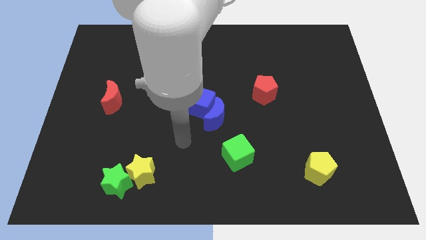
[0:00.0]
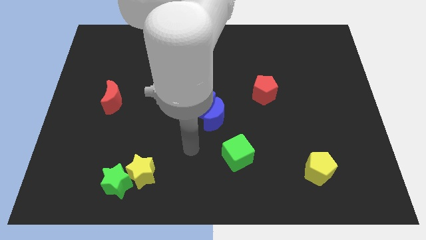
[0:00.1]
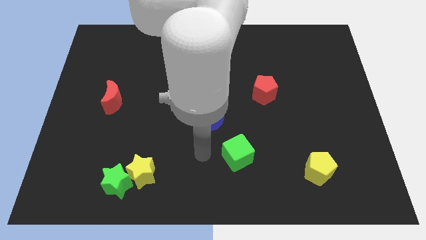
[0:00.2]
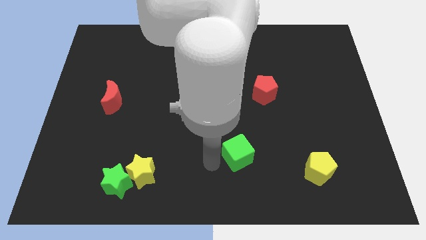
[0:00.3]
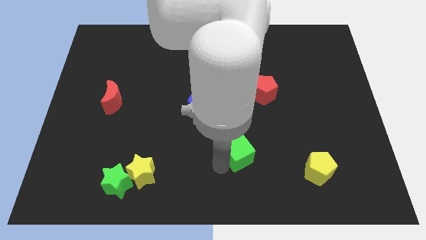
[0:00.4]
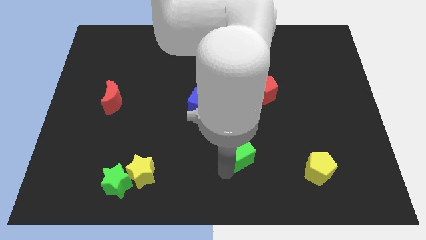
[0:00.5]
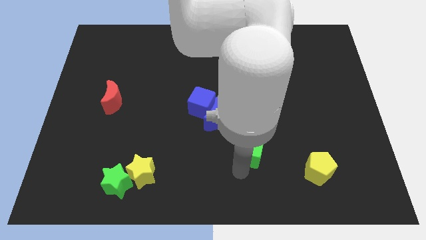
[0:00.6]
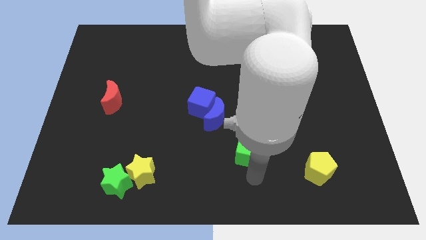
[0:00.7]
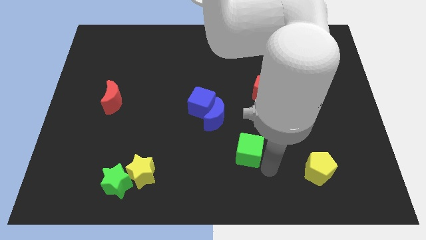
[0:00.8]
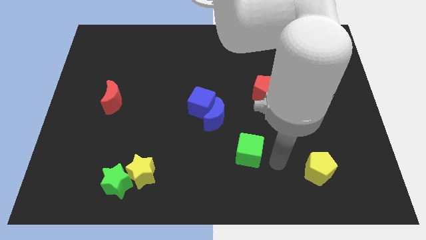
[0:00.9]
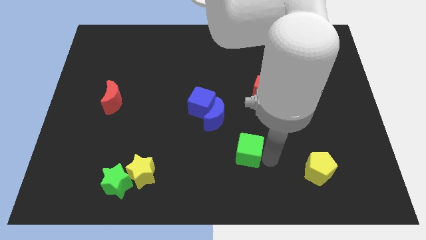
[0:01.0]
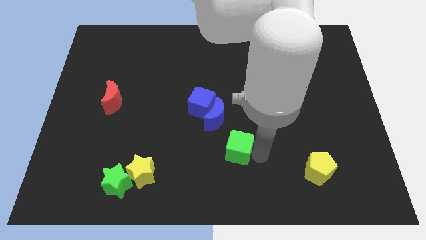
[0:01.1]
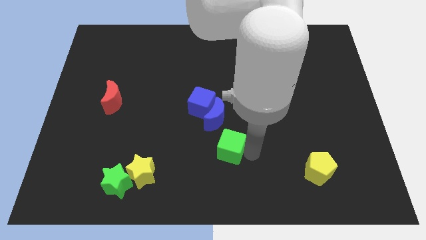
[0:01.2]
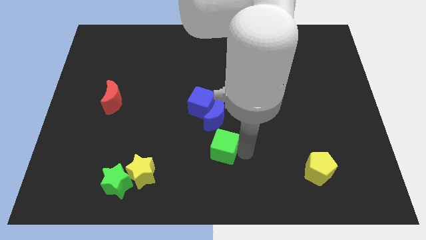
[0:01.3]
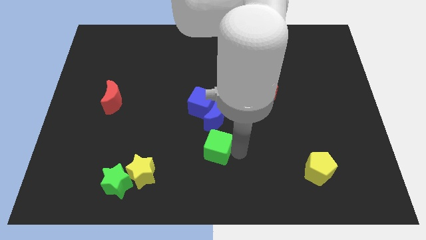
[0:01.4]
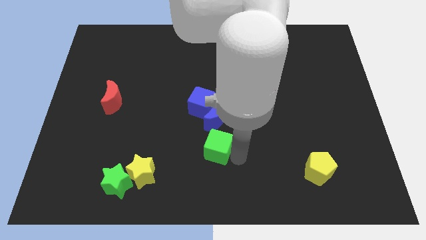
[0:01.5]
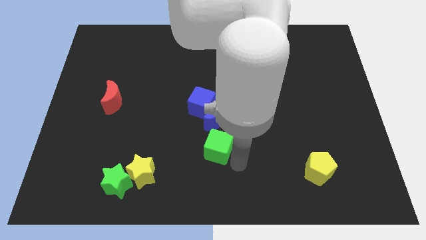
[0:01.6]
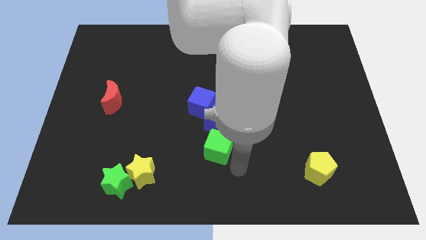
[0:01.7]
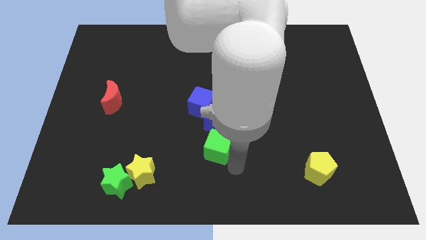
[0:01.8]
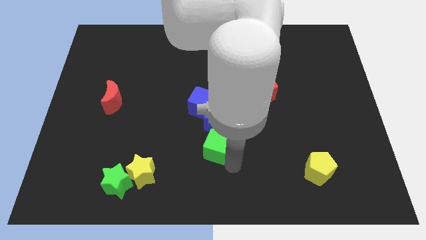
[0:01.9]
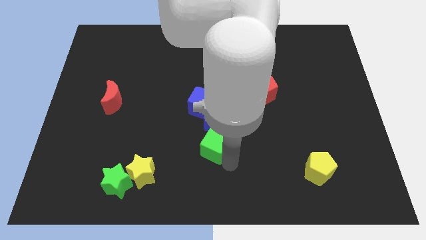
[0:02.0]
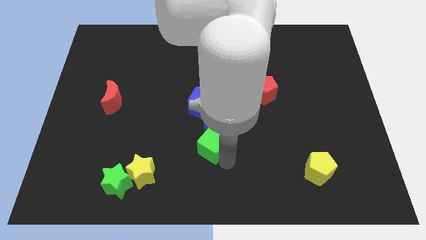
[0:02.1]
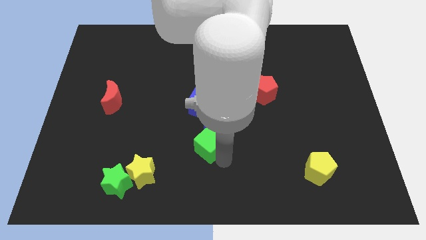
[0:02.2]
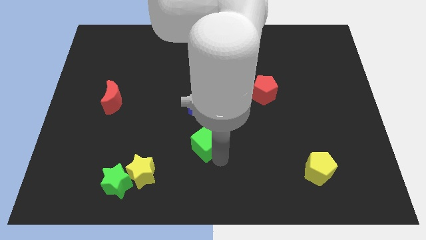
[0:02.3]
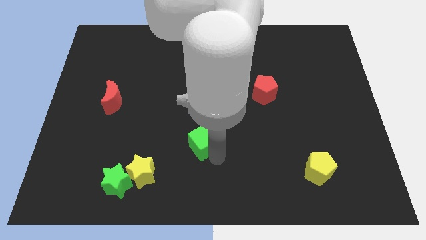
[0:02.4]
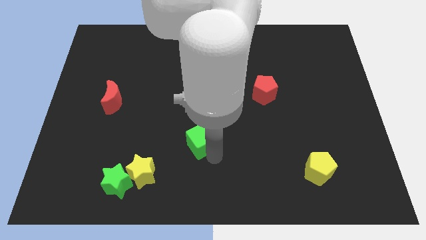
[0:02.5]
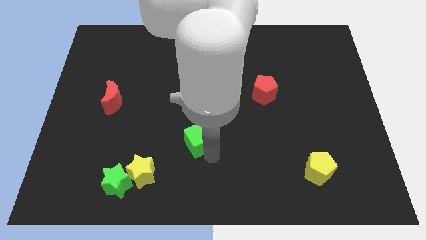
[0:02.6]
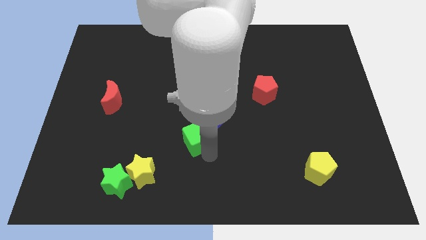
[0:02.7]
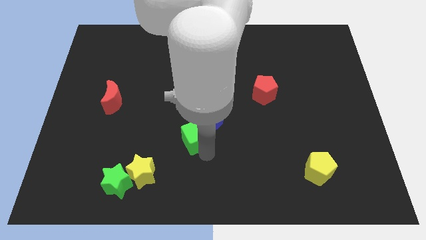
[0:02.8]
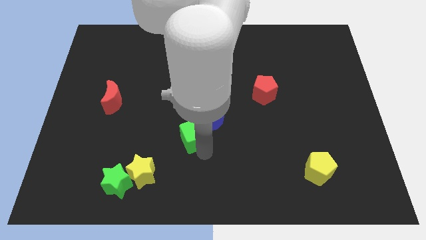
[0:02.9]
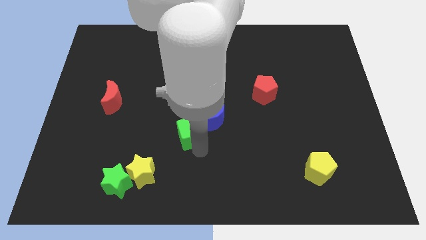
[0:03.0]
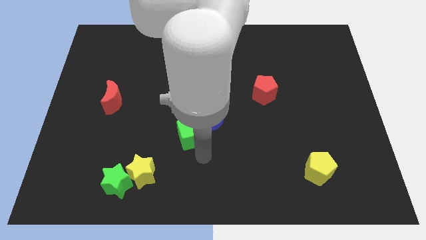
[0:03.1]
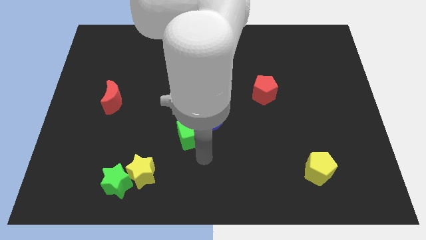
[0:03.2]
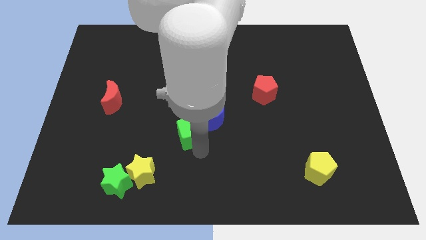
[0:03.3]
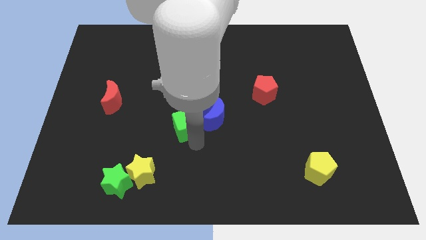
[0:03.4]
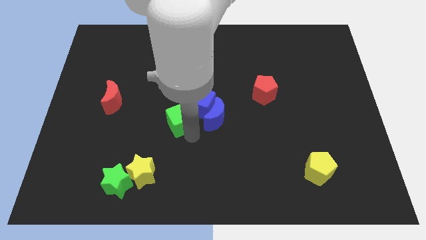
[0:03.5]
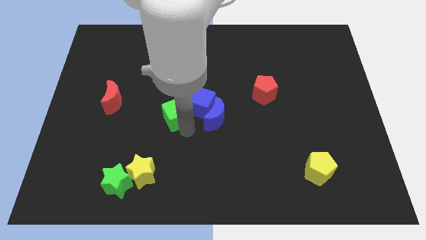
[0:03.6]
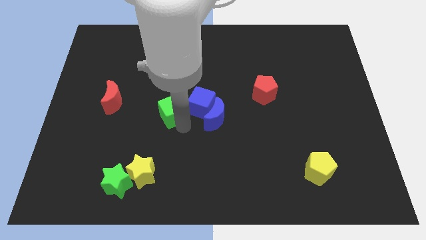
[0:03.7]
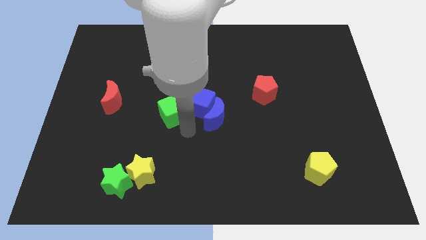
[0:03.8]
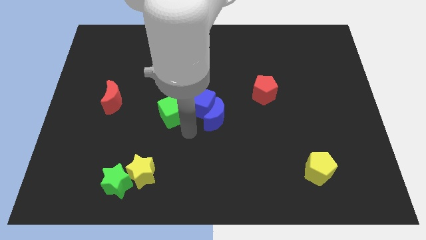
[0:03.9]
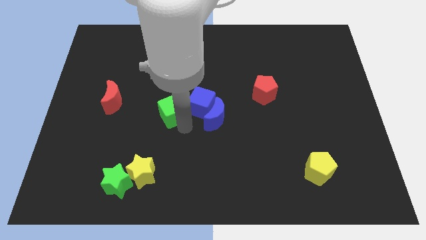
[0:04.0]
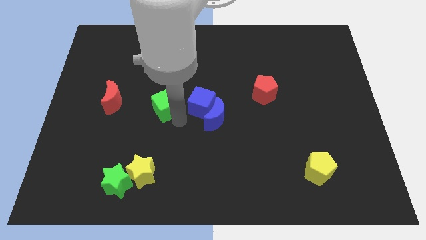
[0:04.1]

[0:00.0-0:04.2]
push the green cube upwards and to the left

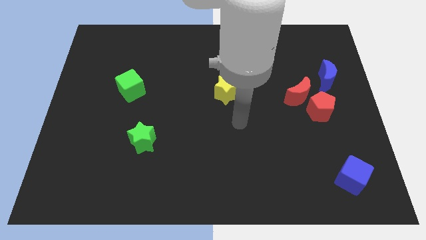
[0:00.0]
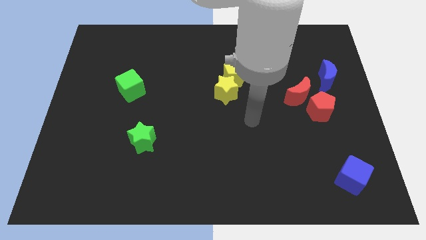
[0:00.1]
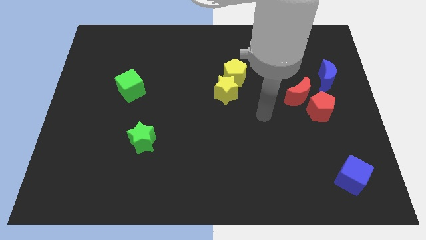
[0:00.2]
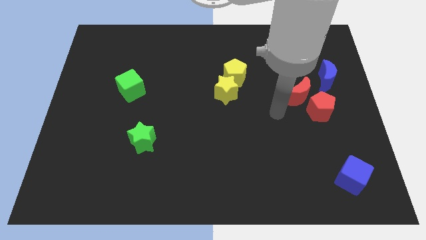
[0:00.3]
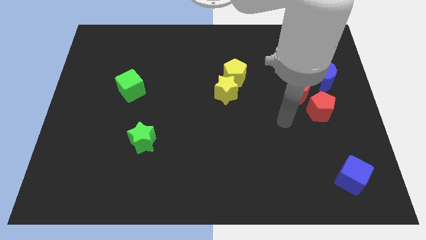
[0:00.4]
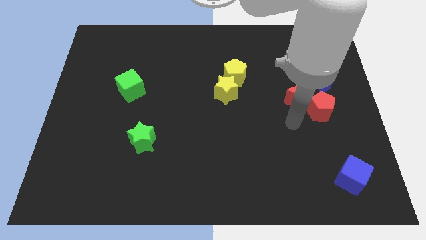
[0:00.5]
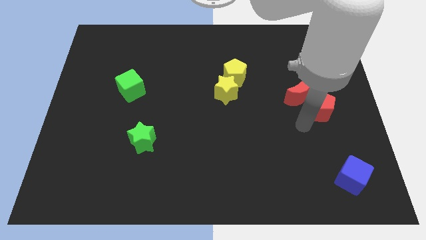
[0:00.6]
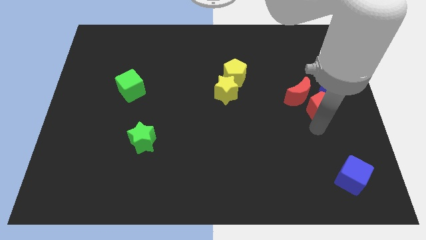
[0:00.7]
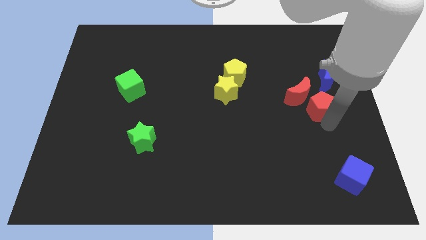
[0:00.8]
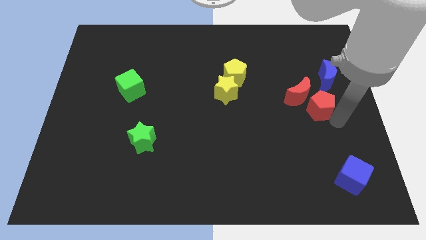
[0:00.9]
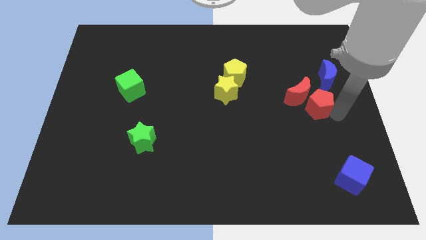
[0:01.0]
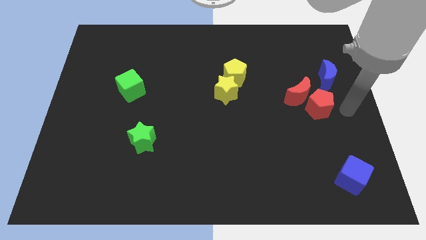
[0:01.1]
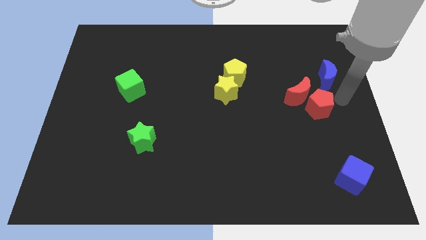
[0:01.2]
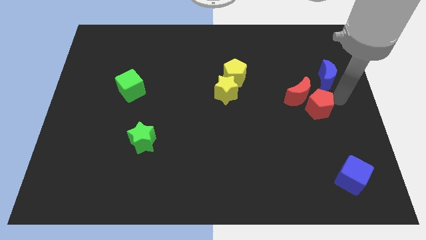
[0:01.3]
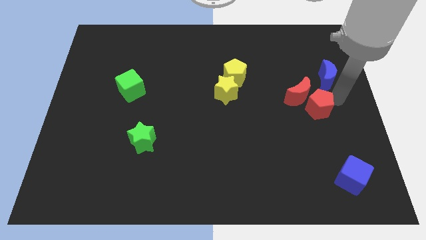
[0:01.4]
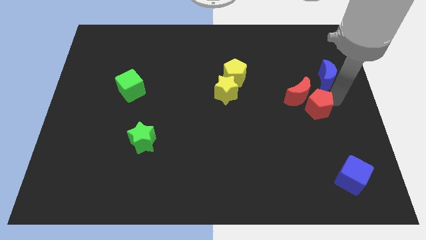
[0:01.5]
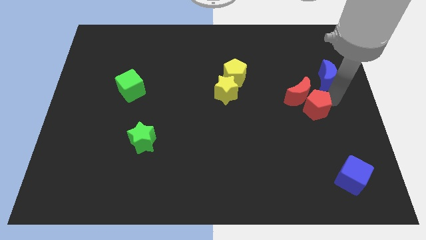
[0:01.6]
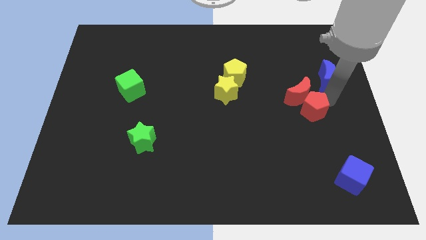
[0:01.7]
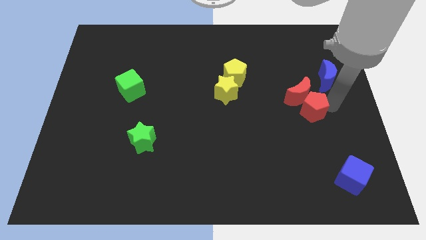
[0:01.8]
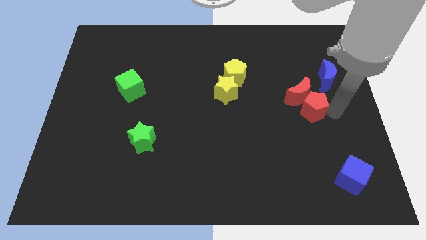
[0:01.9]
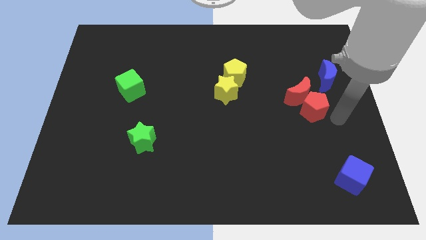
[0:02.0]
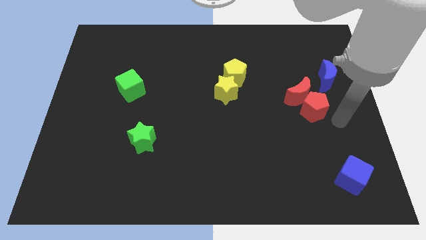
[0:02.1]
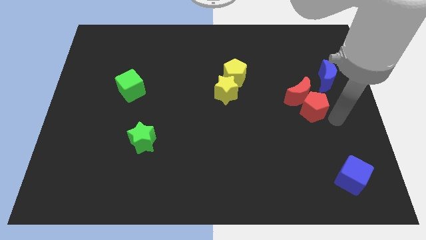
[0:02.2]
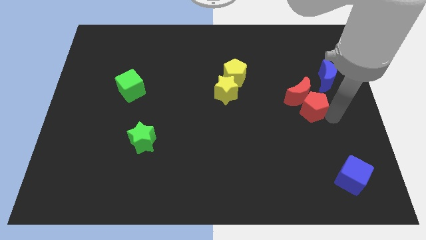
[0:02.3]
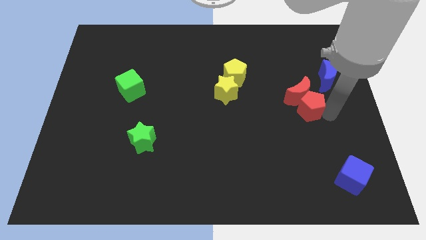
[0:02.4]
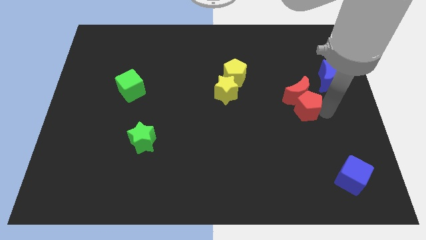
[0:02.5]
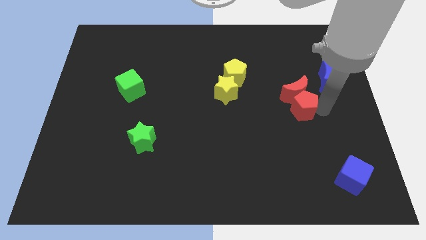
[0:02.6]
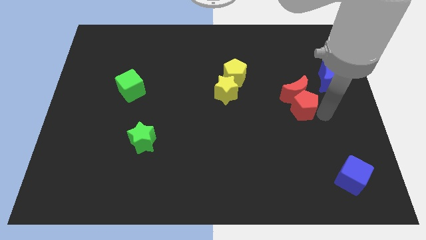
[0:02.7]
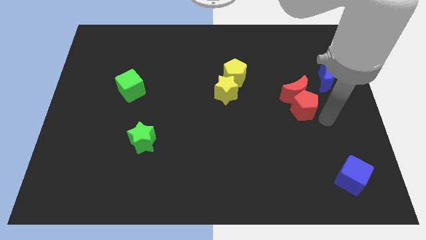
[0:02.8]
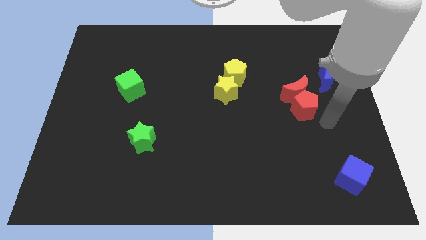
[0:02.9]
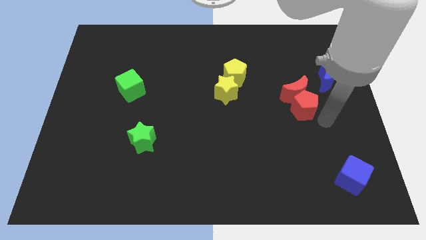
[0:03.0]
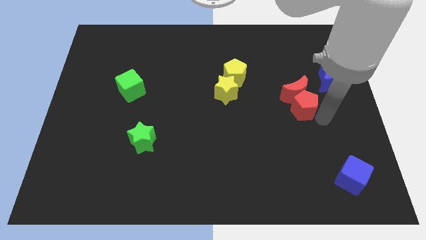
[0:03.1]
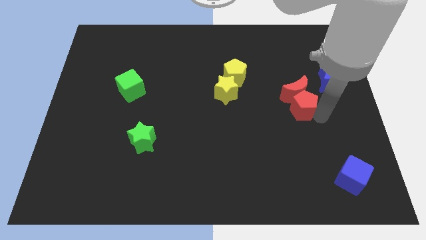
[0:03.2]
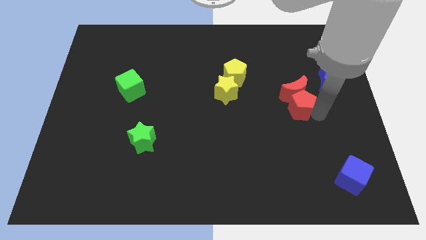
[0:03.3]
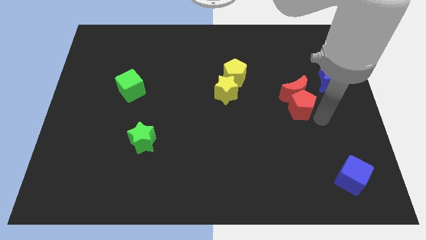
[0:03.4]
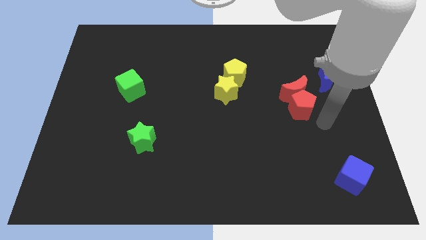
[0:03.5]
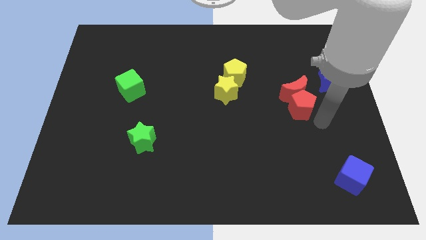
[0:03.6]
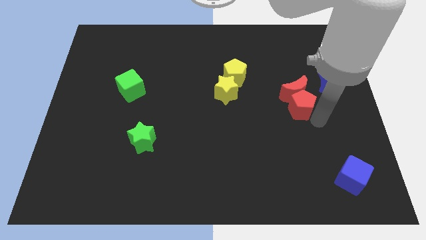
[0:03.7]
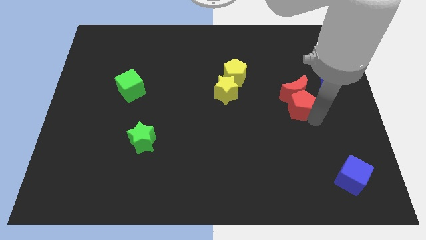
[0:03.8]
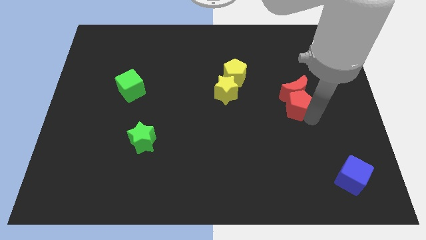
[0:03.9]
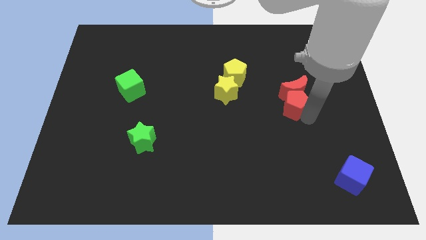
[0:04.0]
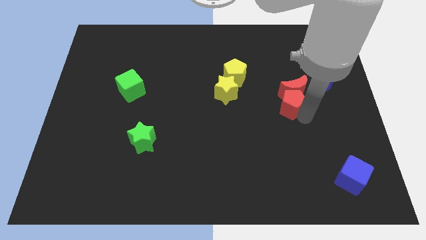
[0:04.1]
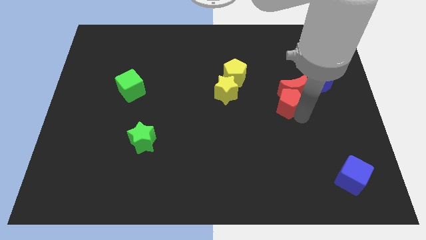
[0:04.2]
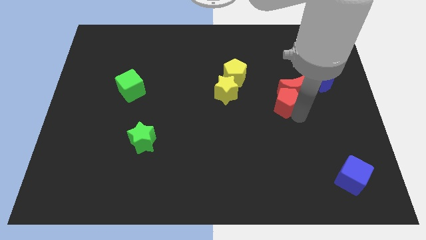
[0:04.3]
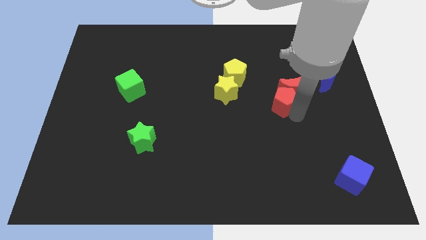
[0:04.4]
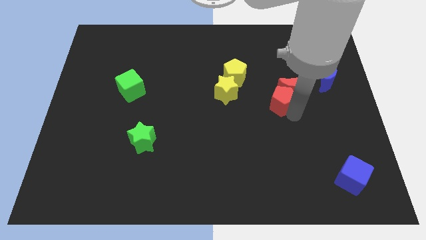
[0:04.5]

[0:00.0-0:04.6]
slightly move the red pentagon diagonally up and to the left
